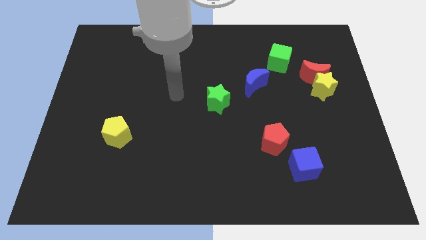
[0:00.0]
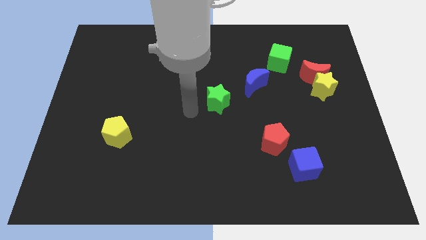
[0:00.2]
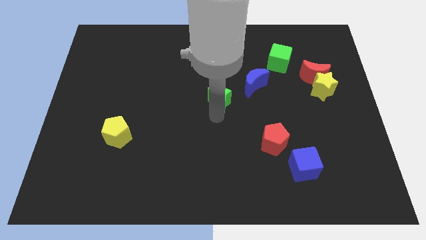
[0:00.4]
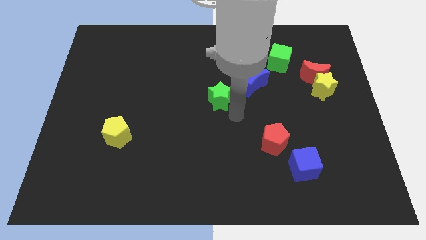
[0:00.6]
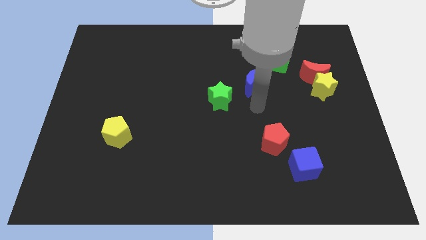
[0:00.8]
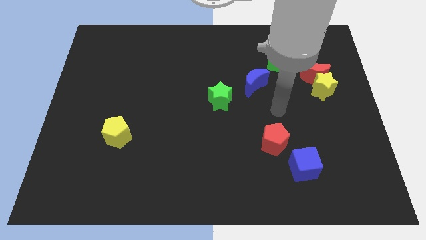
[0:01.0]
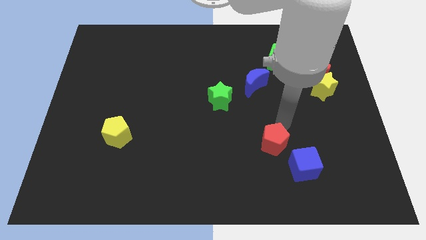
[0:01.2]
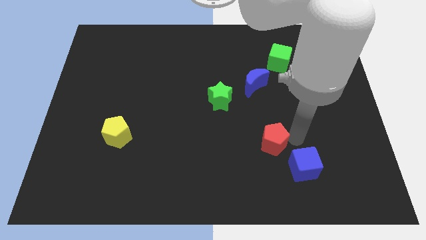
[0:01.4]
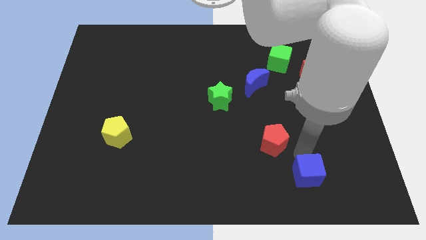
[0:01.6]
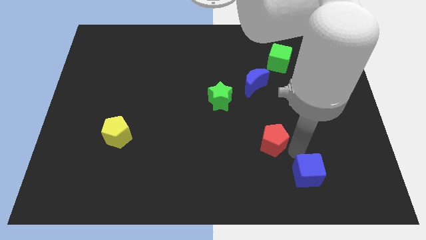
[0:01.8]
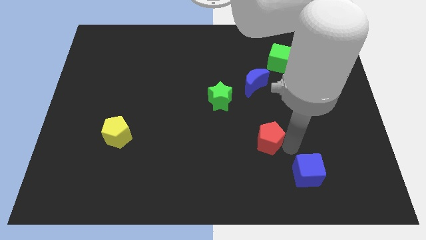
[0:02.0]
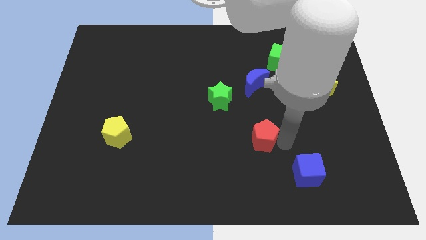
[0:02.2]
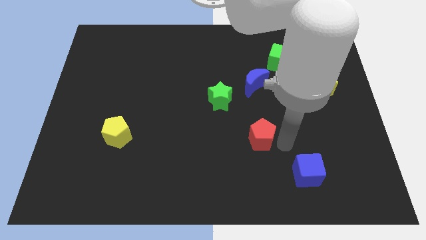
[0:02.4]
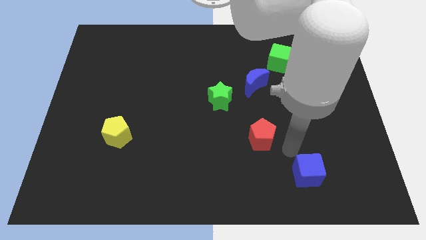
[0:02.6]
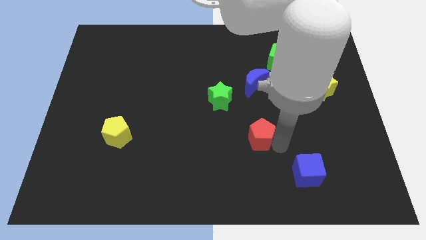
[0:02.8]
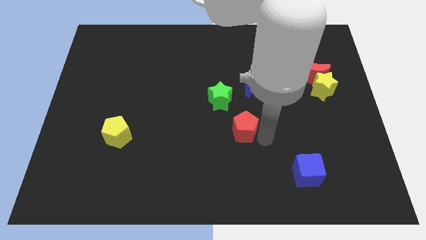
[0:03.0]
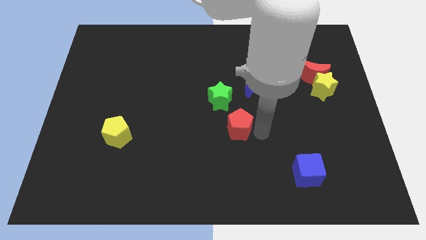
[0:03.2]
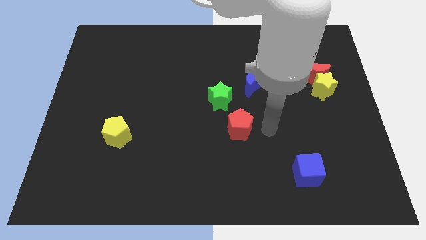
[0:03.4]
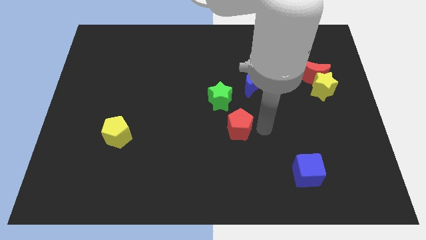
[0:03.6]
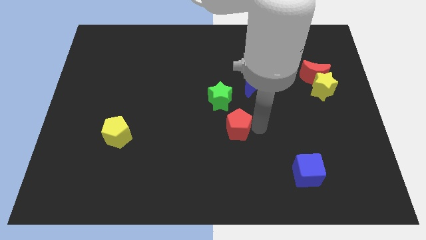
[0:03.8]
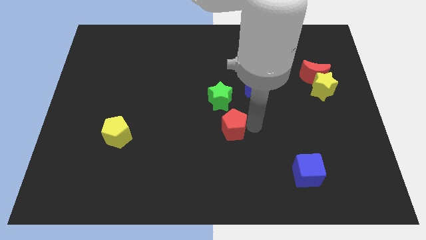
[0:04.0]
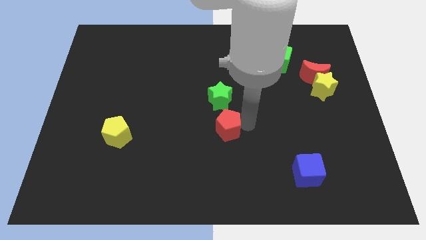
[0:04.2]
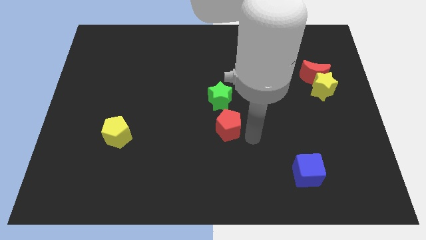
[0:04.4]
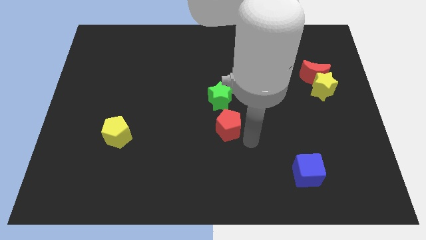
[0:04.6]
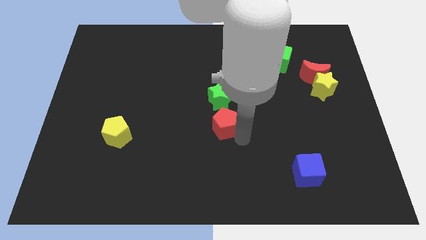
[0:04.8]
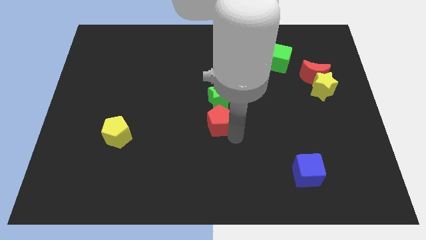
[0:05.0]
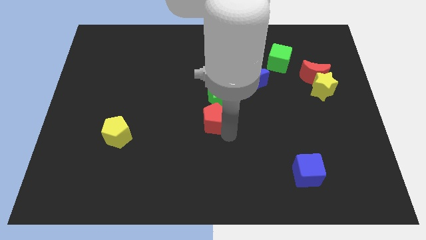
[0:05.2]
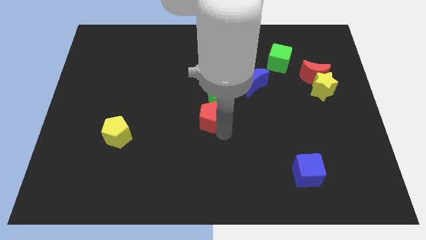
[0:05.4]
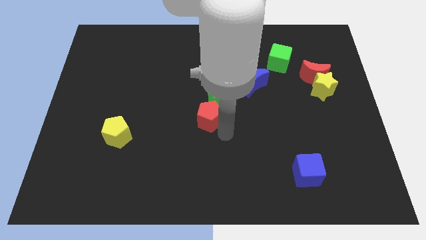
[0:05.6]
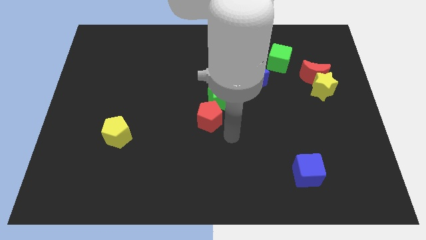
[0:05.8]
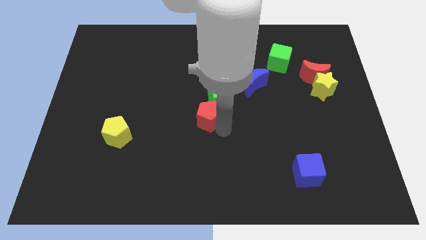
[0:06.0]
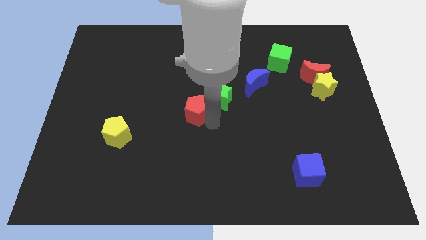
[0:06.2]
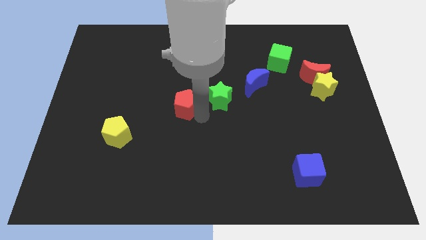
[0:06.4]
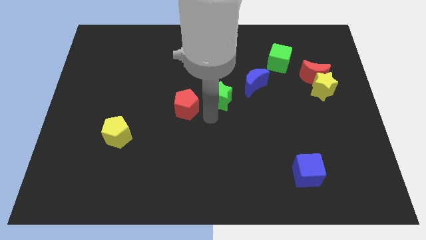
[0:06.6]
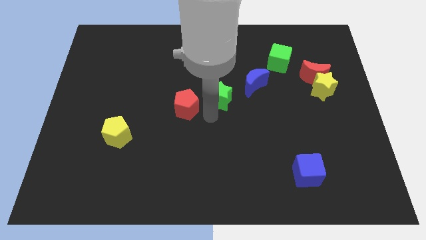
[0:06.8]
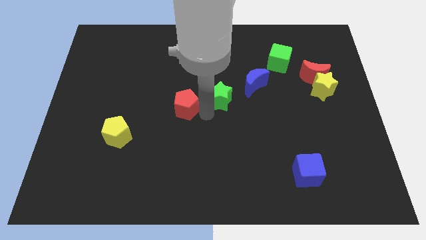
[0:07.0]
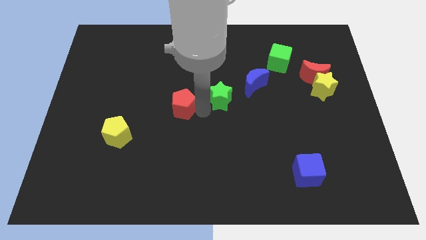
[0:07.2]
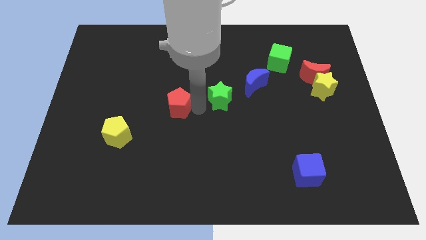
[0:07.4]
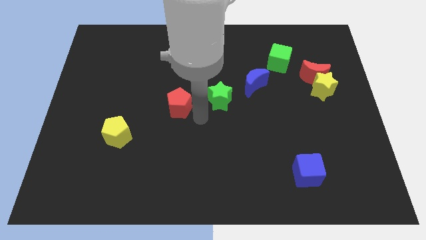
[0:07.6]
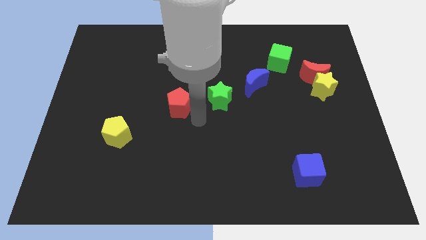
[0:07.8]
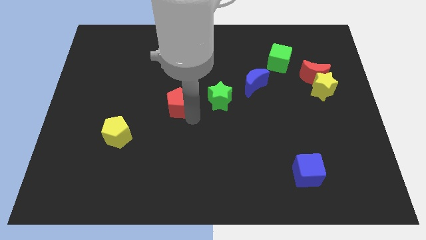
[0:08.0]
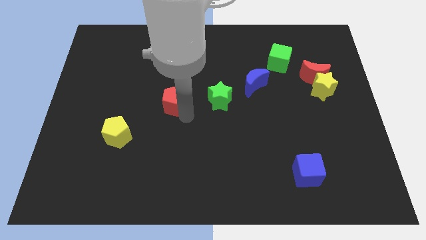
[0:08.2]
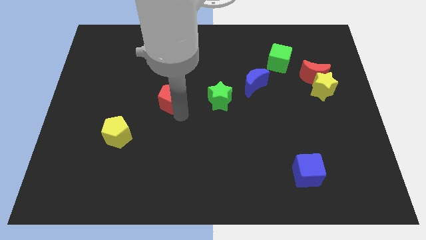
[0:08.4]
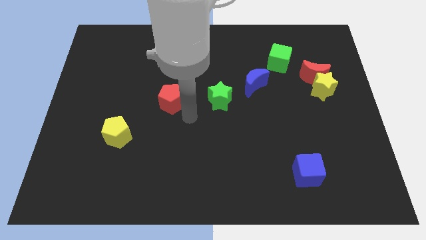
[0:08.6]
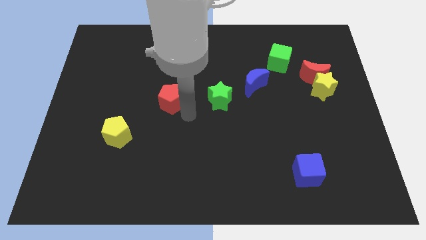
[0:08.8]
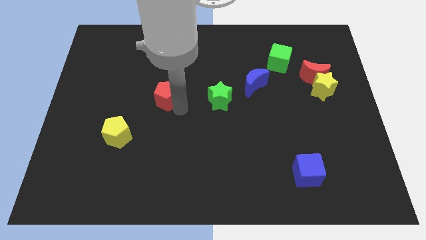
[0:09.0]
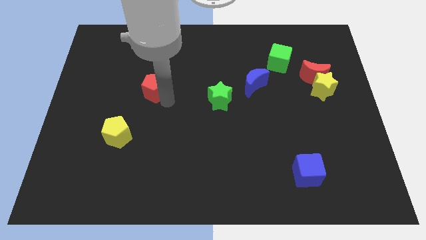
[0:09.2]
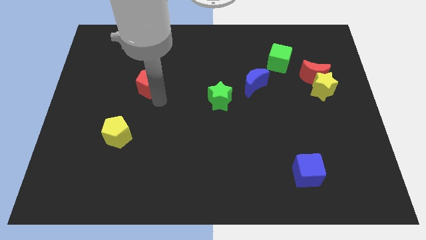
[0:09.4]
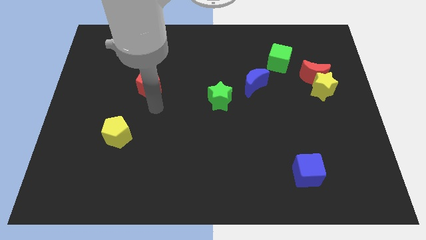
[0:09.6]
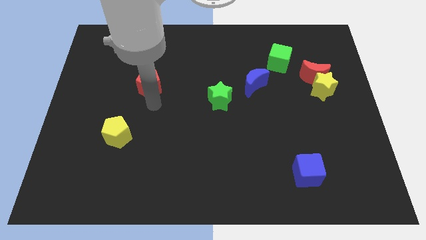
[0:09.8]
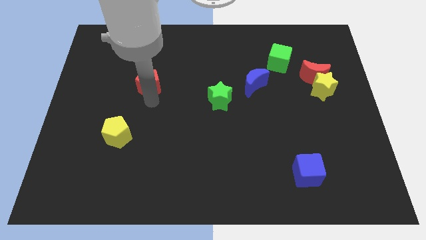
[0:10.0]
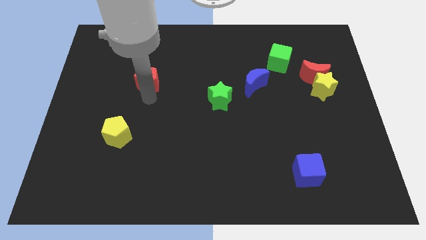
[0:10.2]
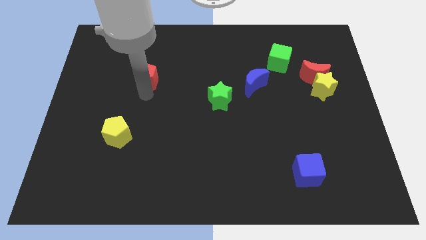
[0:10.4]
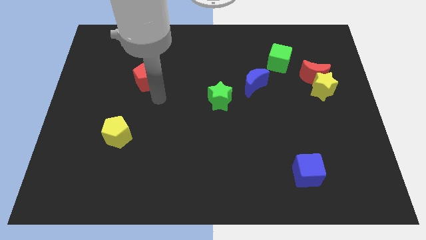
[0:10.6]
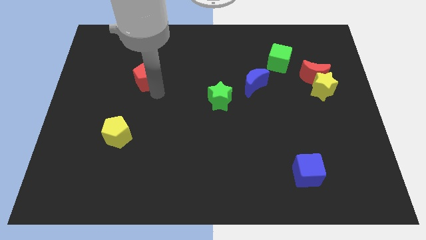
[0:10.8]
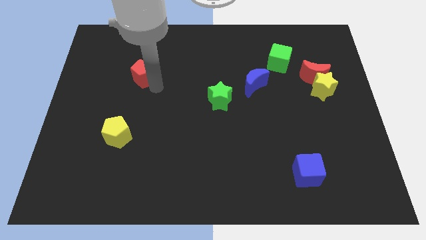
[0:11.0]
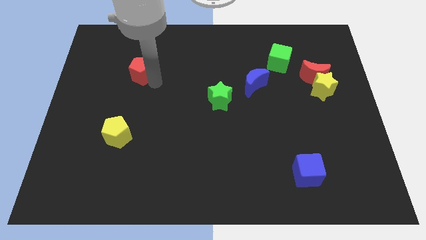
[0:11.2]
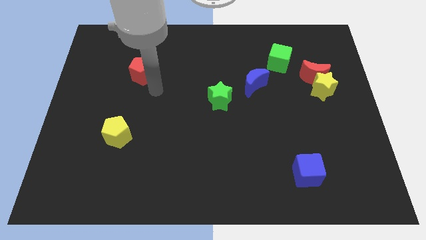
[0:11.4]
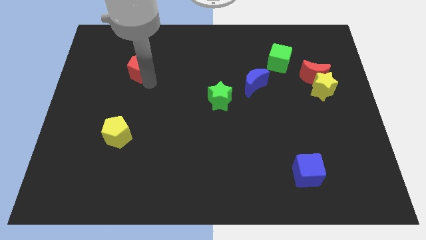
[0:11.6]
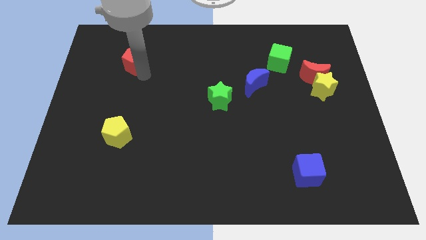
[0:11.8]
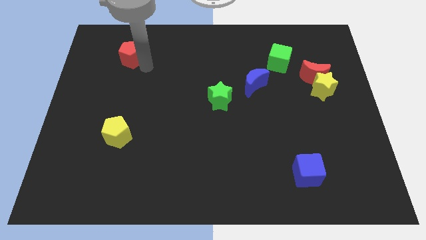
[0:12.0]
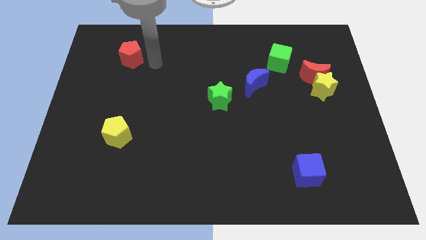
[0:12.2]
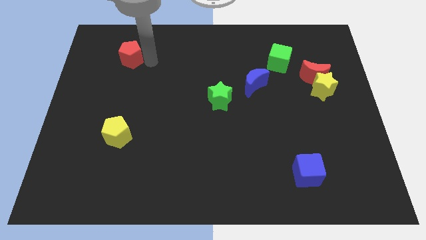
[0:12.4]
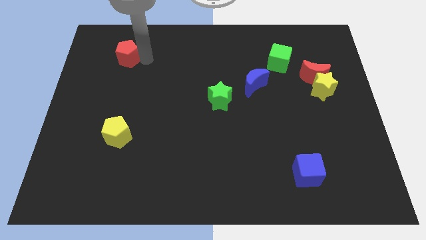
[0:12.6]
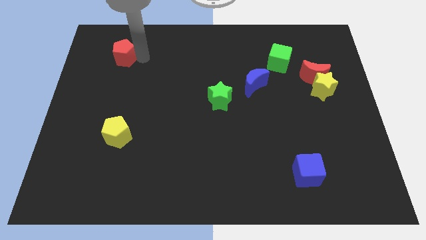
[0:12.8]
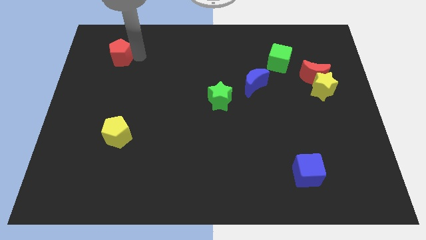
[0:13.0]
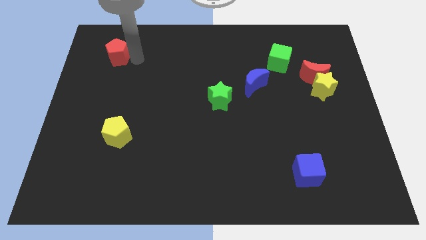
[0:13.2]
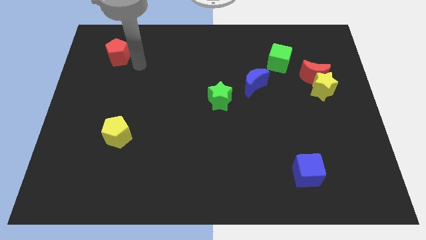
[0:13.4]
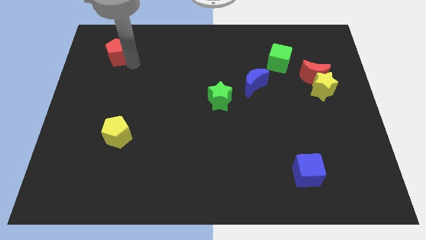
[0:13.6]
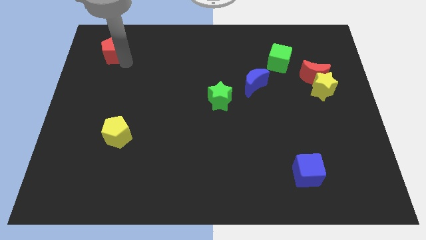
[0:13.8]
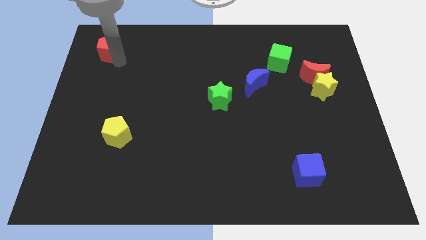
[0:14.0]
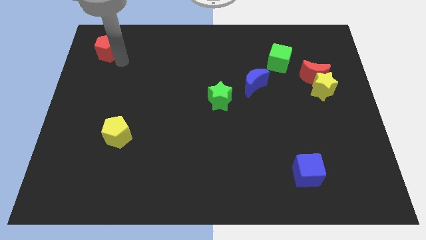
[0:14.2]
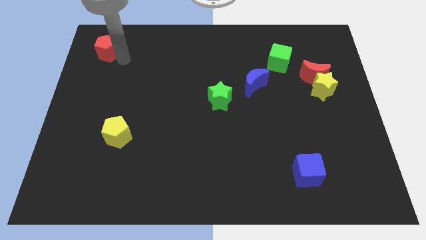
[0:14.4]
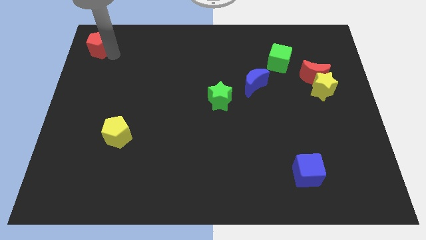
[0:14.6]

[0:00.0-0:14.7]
put the red pentagon to the top left corner

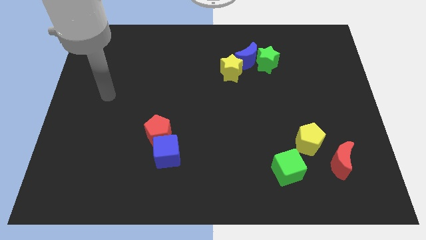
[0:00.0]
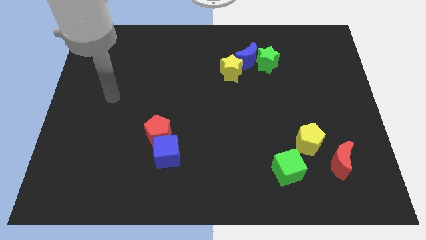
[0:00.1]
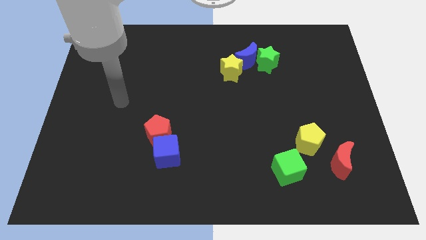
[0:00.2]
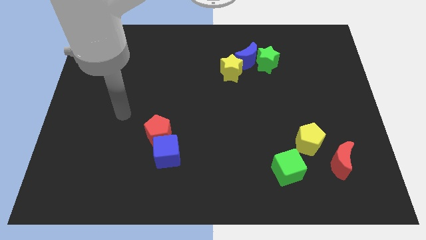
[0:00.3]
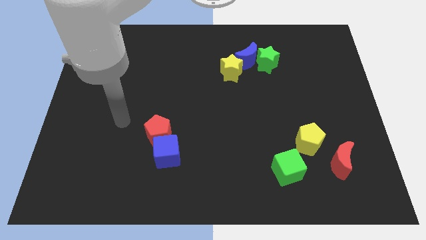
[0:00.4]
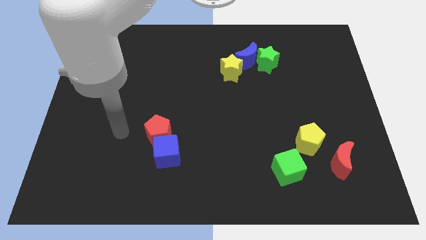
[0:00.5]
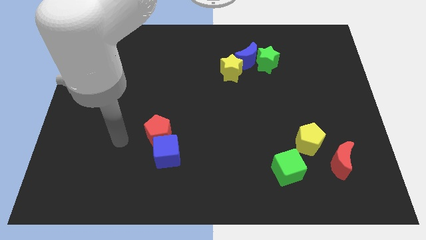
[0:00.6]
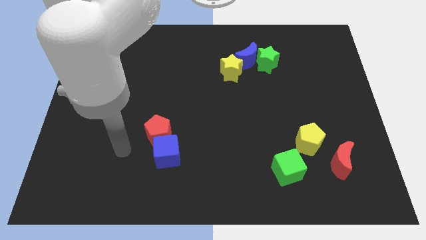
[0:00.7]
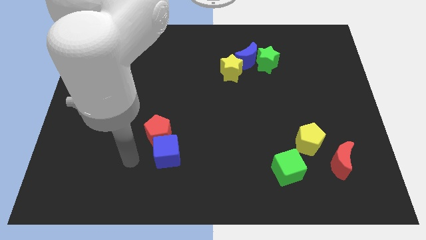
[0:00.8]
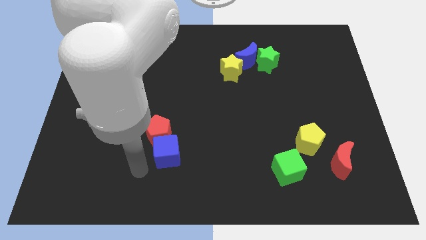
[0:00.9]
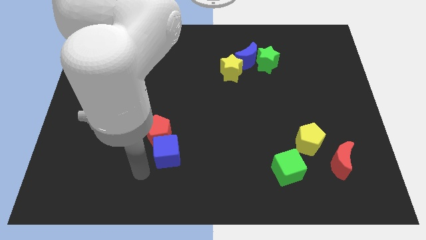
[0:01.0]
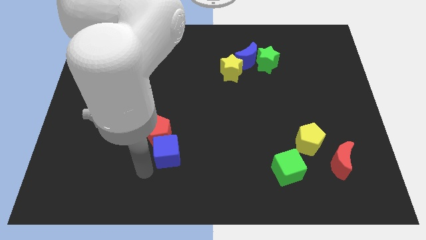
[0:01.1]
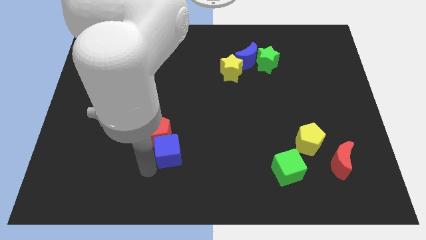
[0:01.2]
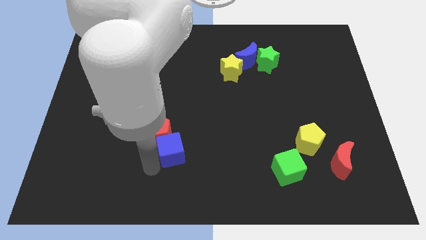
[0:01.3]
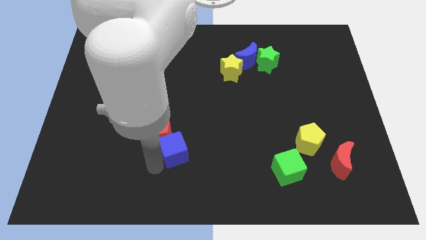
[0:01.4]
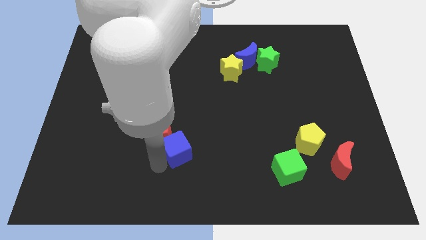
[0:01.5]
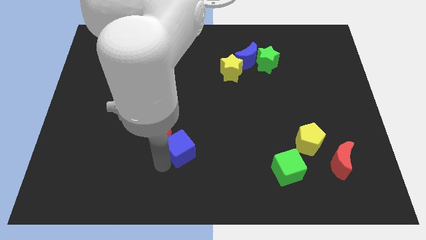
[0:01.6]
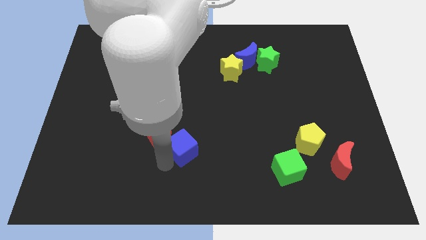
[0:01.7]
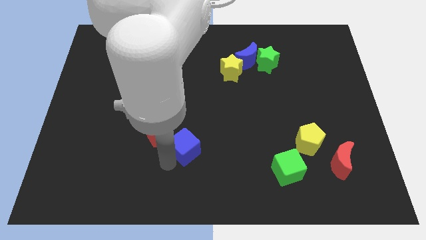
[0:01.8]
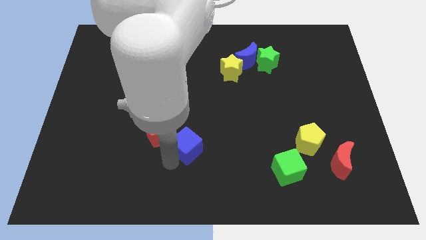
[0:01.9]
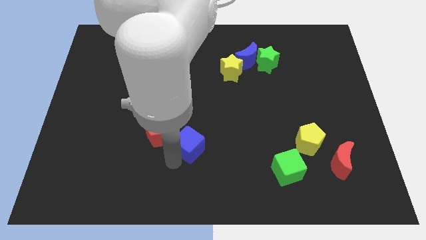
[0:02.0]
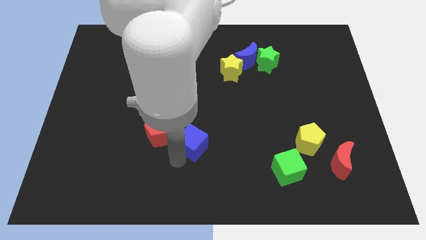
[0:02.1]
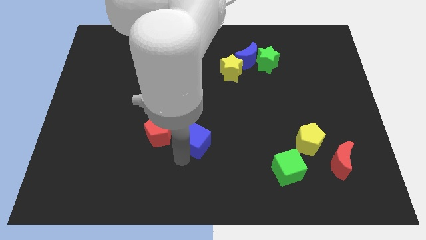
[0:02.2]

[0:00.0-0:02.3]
move the blue cube to the middle of the board
